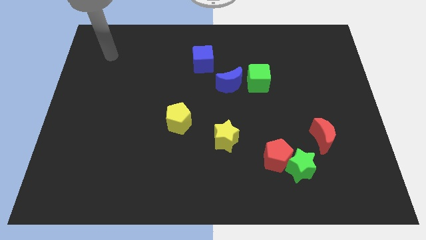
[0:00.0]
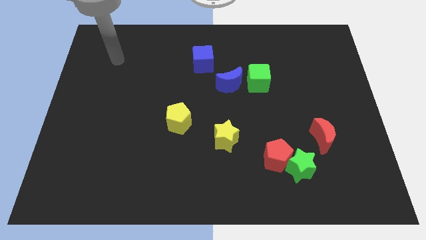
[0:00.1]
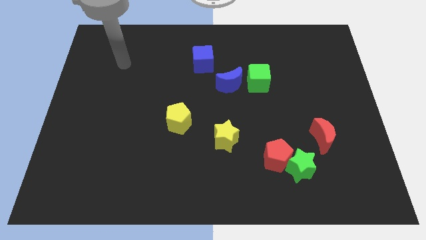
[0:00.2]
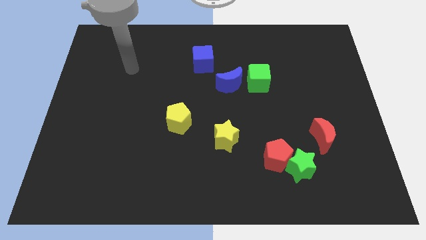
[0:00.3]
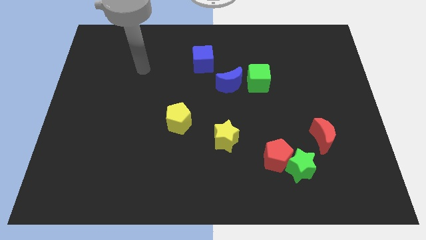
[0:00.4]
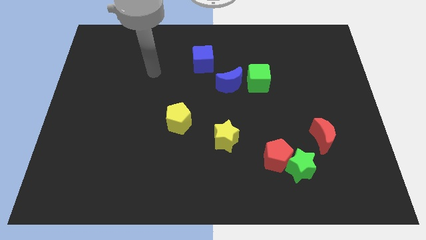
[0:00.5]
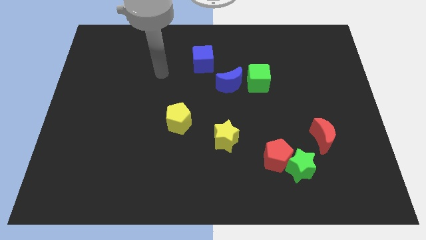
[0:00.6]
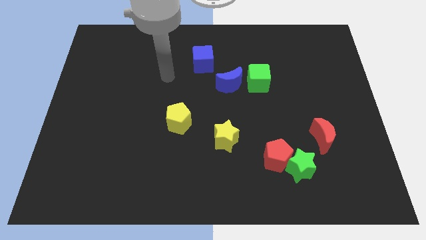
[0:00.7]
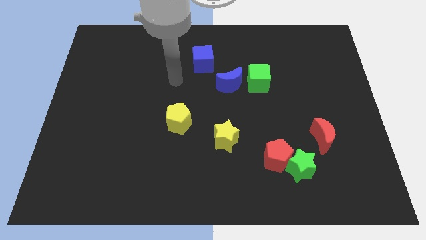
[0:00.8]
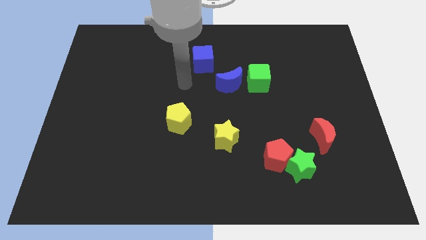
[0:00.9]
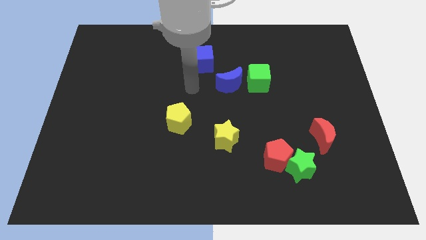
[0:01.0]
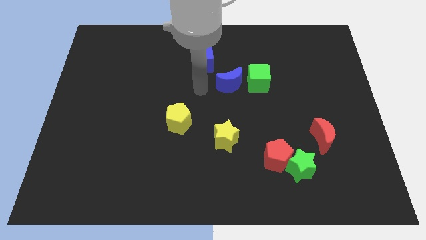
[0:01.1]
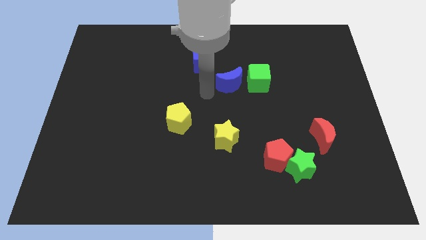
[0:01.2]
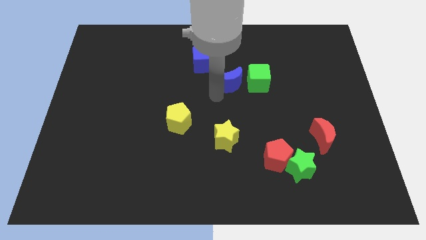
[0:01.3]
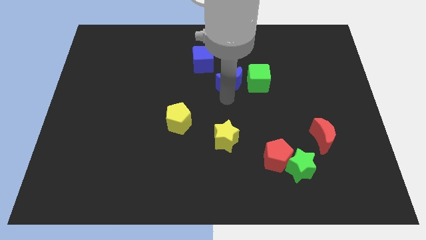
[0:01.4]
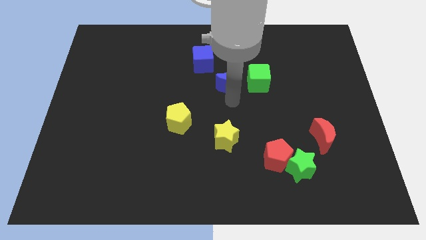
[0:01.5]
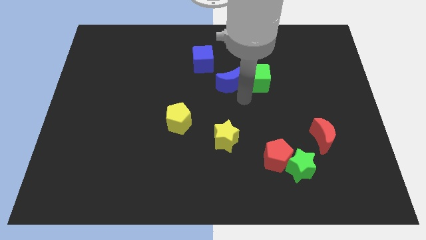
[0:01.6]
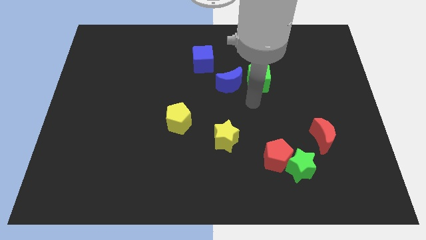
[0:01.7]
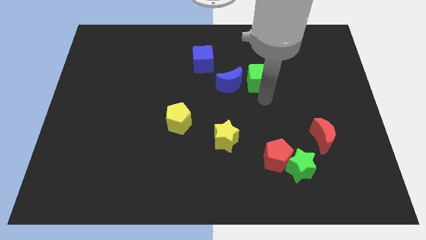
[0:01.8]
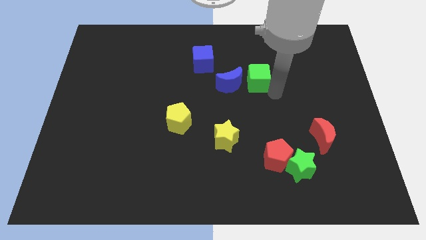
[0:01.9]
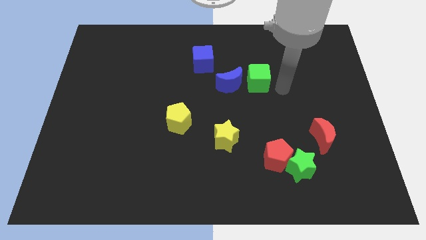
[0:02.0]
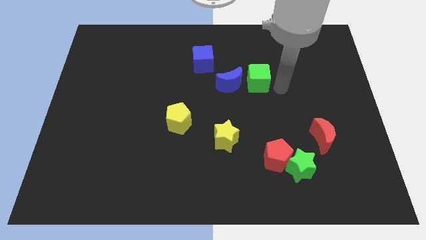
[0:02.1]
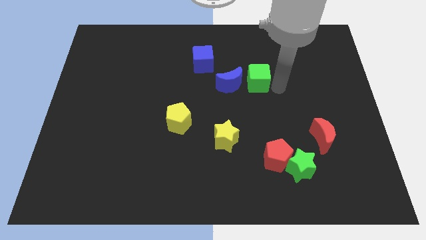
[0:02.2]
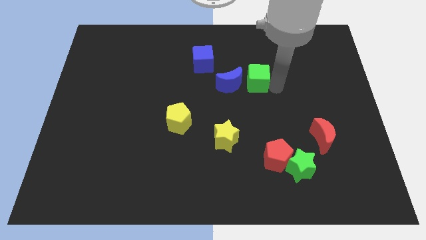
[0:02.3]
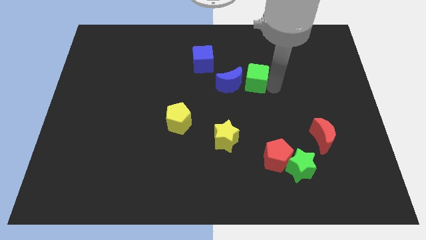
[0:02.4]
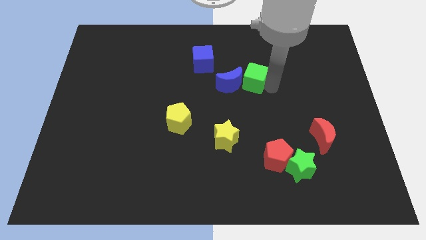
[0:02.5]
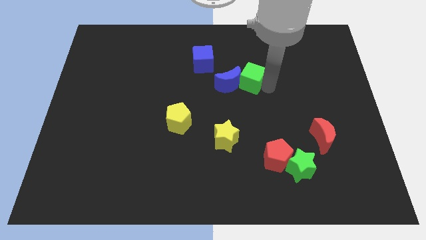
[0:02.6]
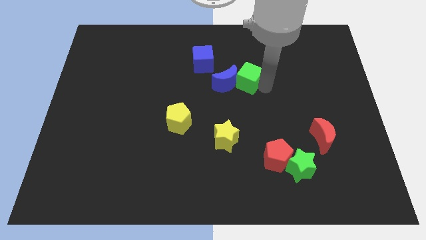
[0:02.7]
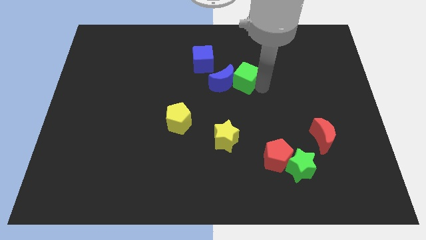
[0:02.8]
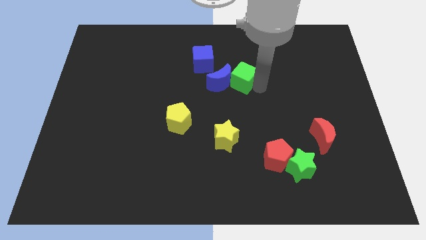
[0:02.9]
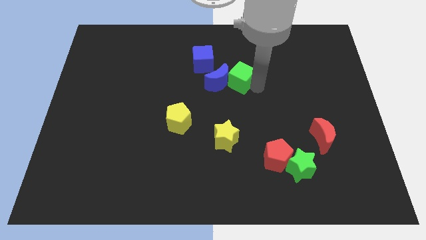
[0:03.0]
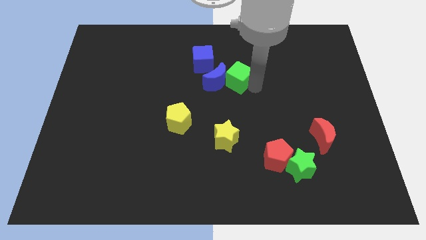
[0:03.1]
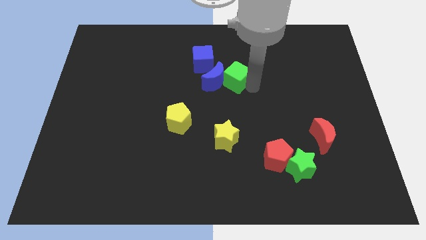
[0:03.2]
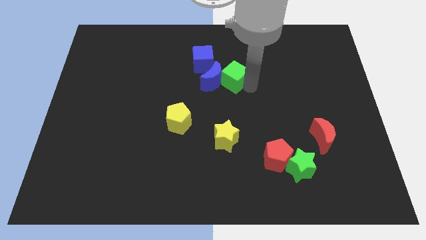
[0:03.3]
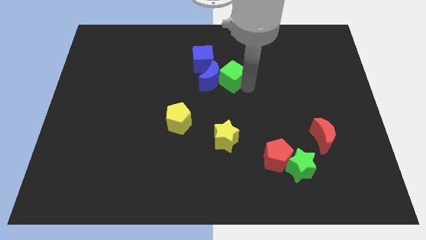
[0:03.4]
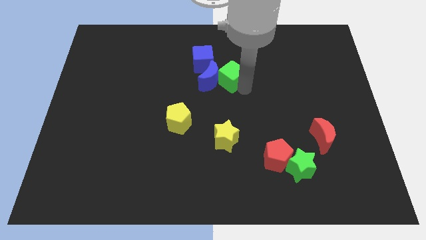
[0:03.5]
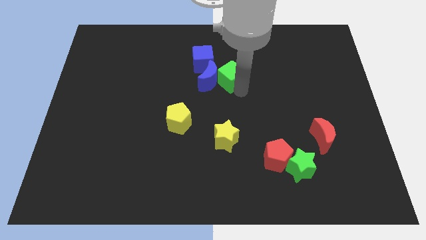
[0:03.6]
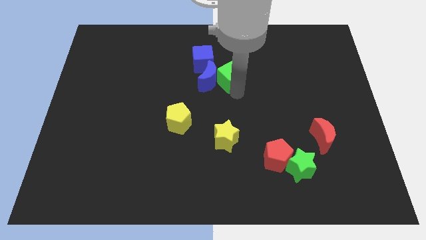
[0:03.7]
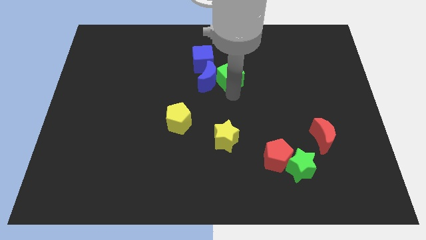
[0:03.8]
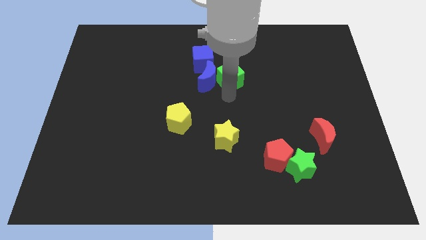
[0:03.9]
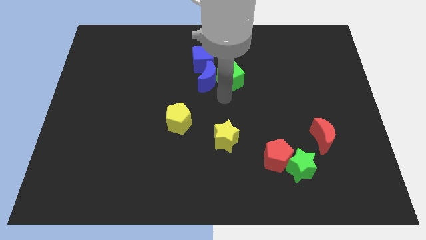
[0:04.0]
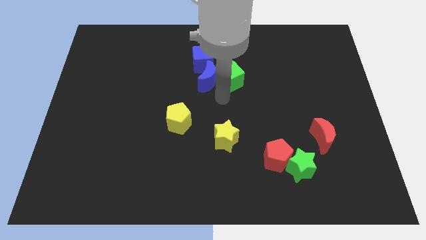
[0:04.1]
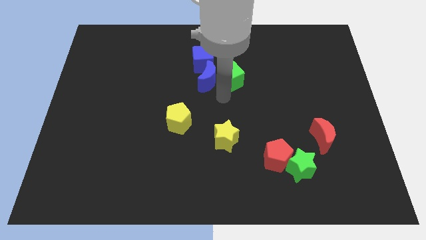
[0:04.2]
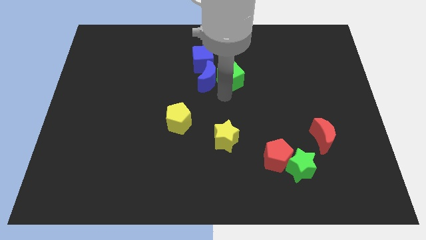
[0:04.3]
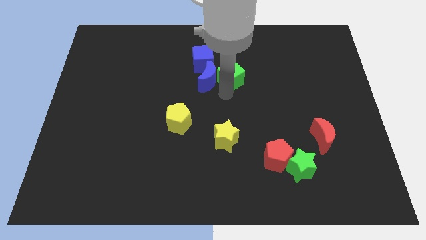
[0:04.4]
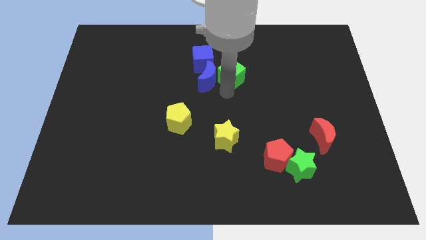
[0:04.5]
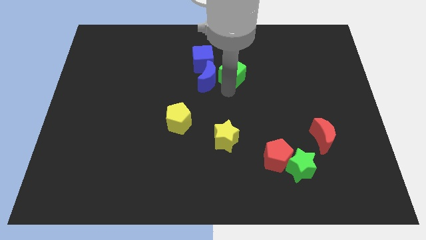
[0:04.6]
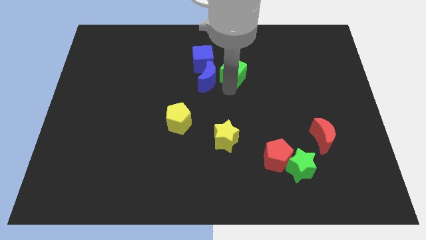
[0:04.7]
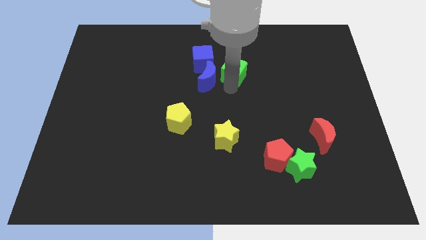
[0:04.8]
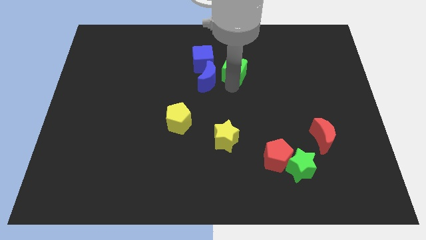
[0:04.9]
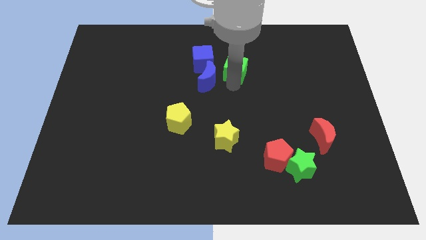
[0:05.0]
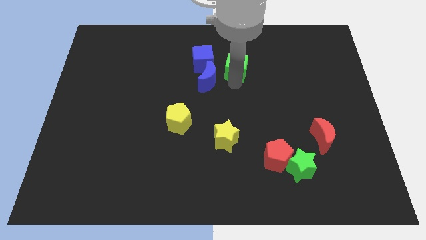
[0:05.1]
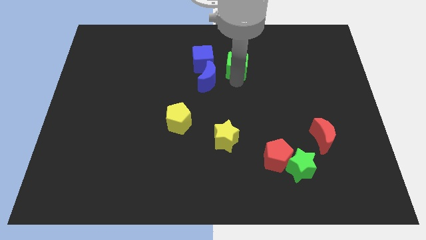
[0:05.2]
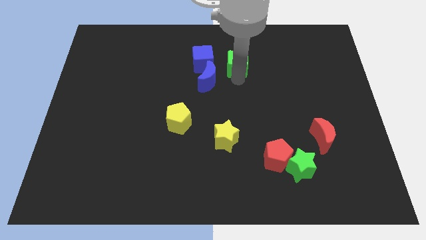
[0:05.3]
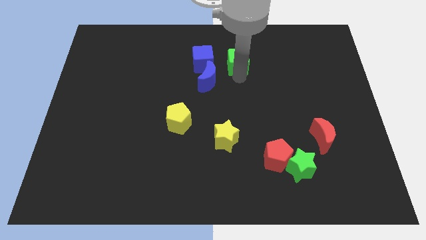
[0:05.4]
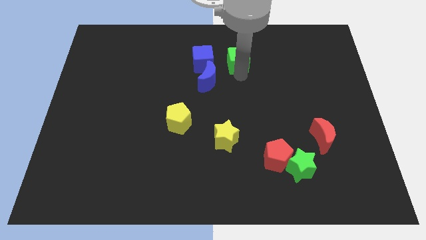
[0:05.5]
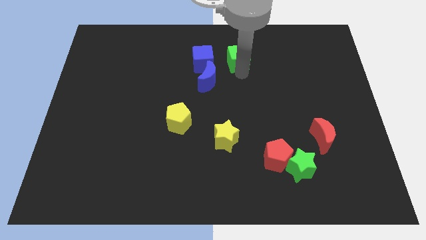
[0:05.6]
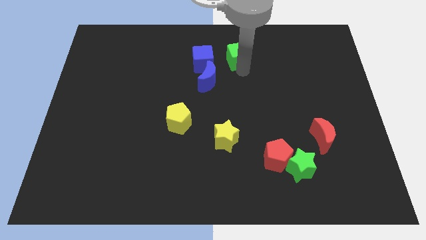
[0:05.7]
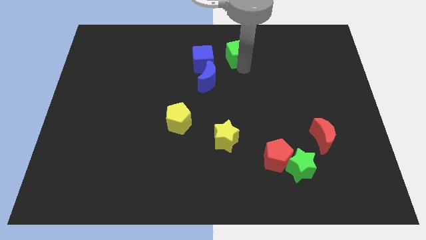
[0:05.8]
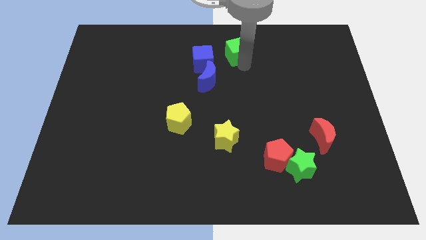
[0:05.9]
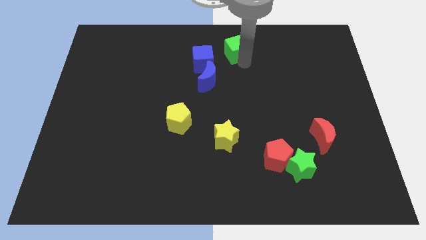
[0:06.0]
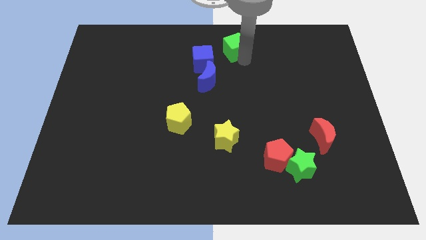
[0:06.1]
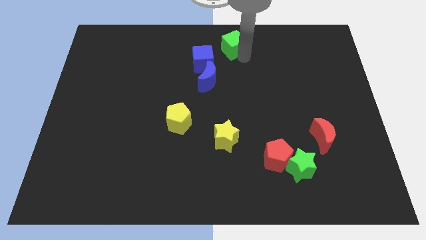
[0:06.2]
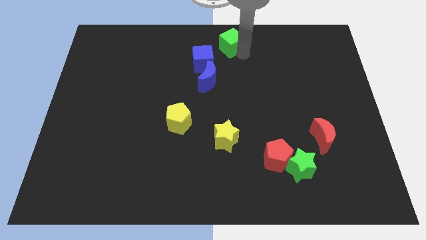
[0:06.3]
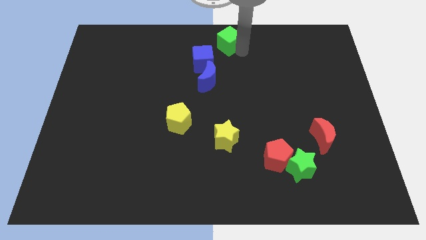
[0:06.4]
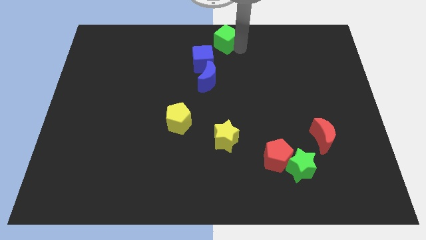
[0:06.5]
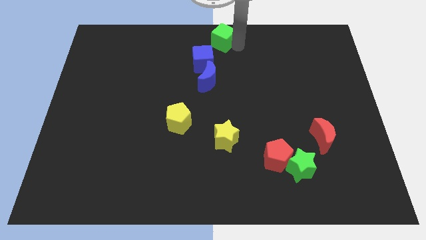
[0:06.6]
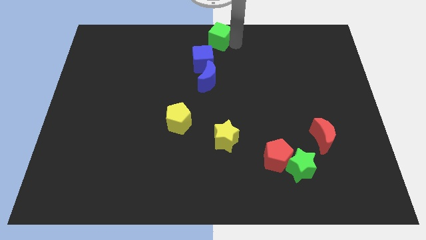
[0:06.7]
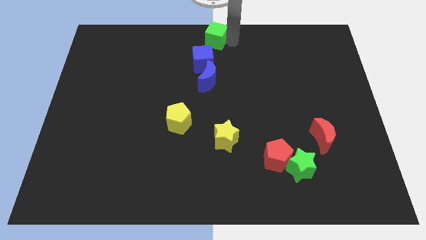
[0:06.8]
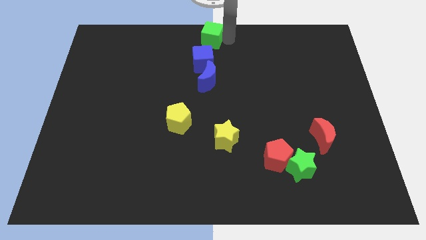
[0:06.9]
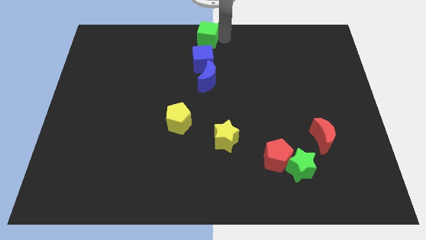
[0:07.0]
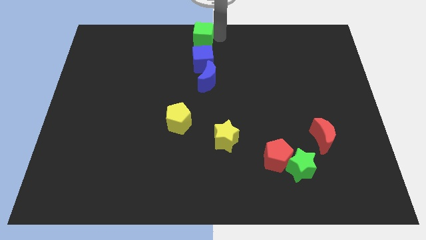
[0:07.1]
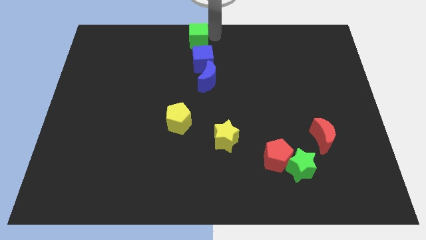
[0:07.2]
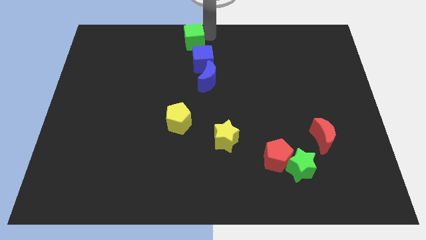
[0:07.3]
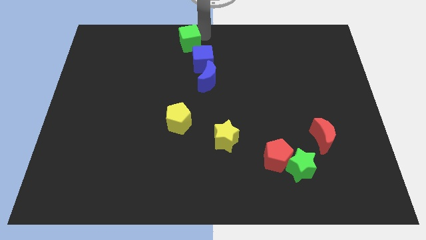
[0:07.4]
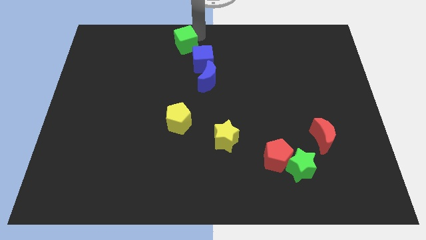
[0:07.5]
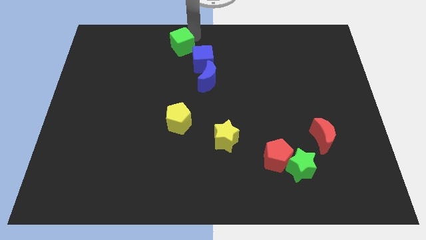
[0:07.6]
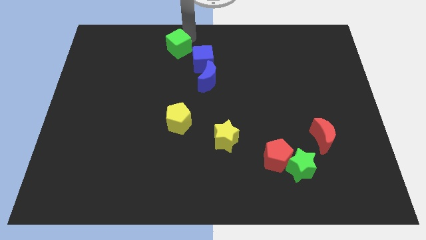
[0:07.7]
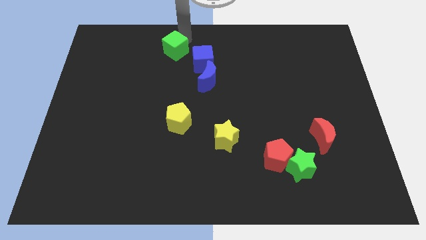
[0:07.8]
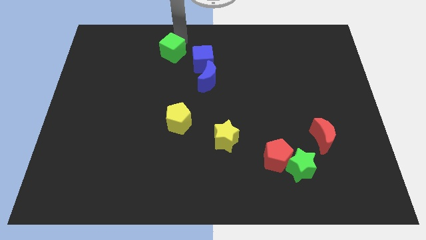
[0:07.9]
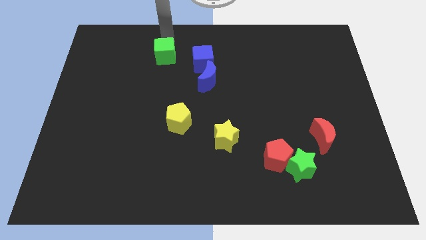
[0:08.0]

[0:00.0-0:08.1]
move the green cube left
